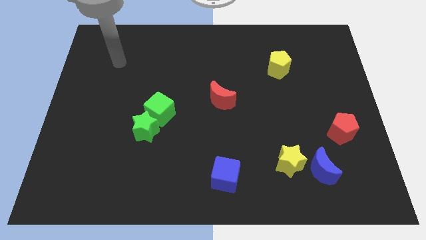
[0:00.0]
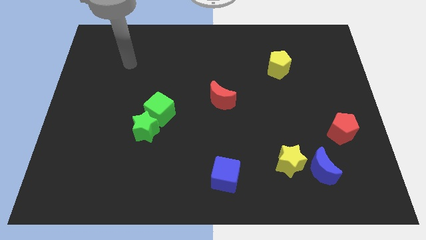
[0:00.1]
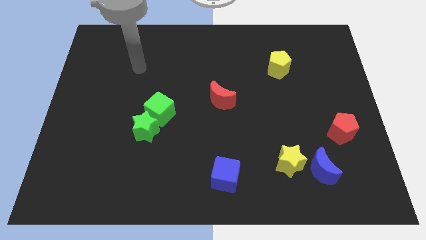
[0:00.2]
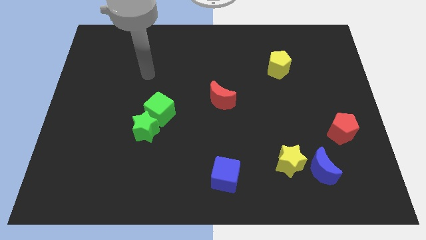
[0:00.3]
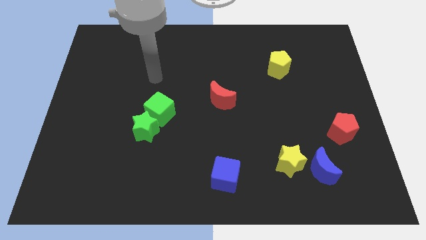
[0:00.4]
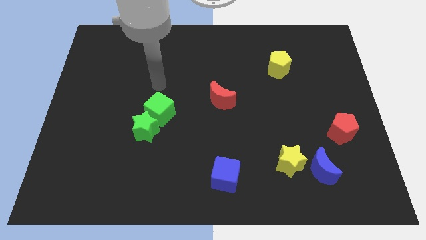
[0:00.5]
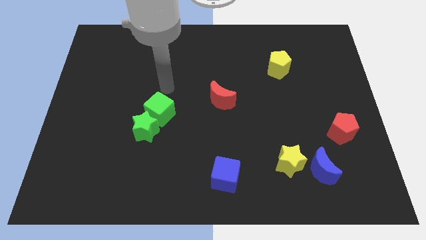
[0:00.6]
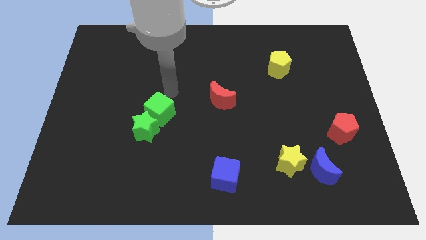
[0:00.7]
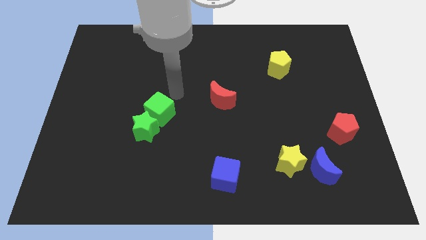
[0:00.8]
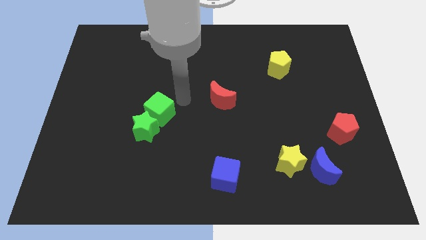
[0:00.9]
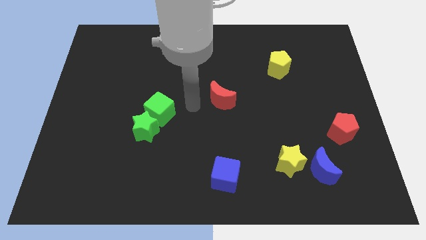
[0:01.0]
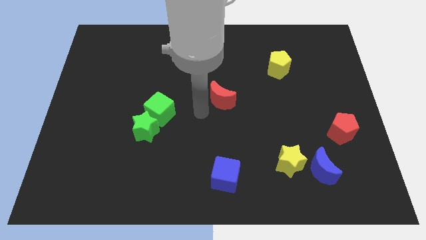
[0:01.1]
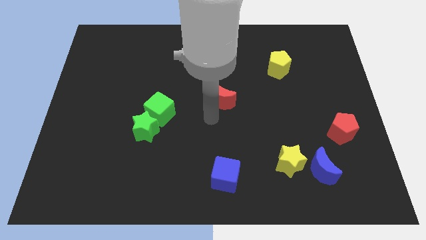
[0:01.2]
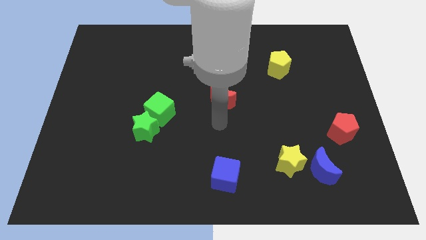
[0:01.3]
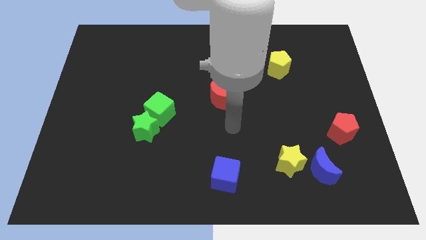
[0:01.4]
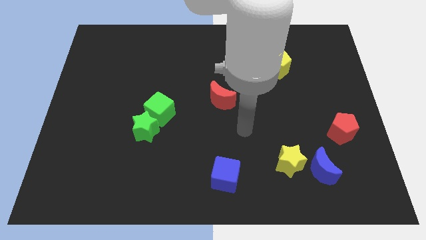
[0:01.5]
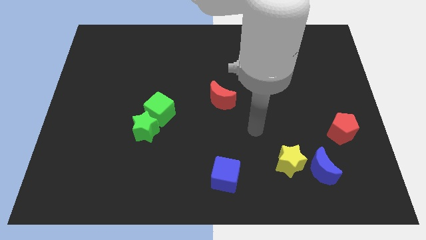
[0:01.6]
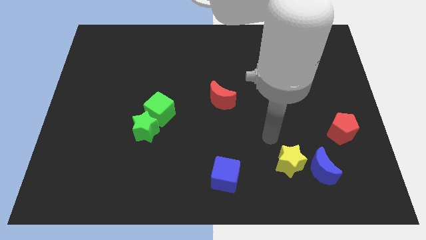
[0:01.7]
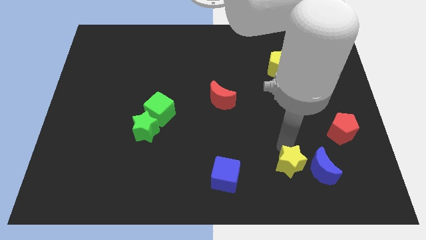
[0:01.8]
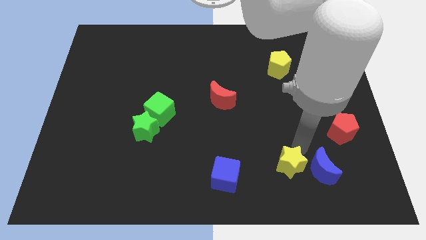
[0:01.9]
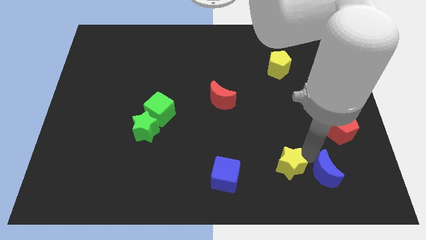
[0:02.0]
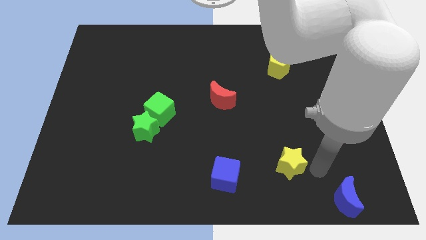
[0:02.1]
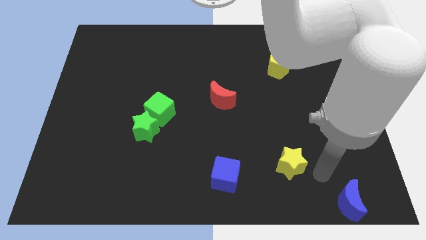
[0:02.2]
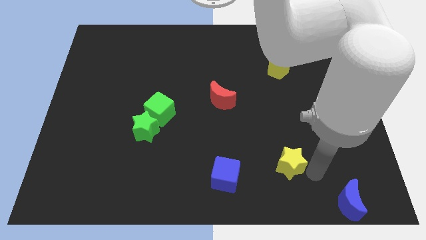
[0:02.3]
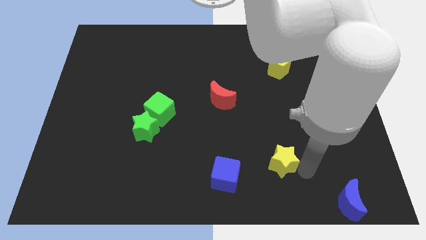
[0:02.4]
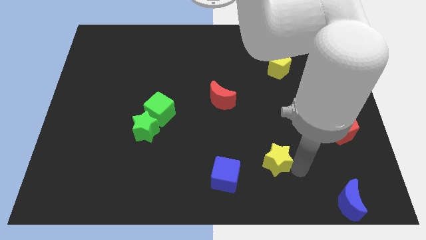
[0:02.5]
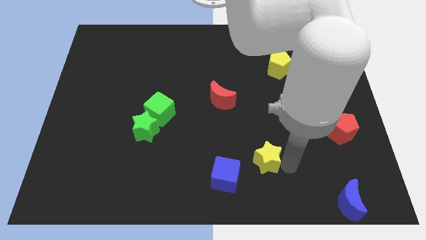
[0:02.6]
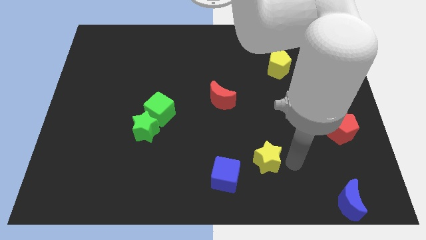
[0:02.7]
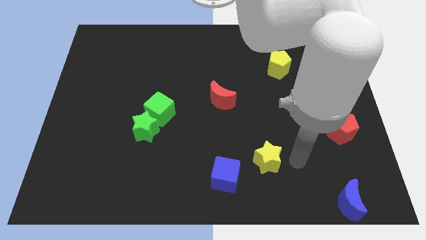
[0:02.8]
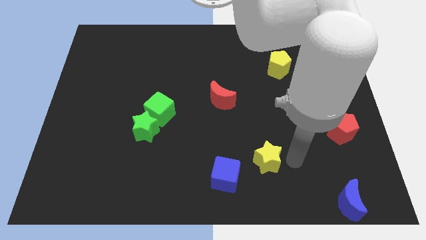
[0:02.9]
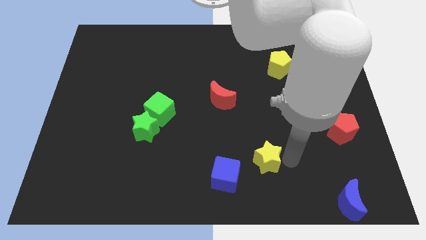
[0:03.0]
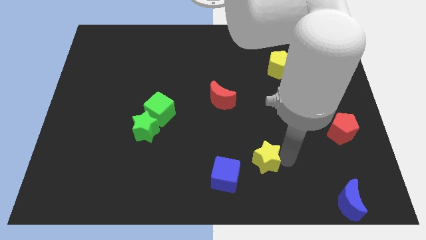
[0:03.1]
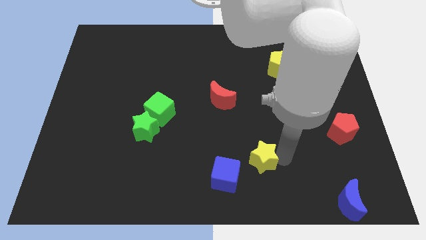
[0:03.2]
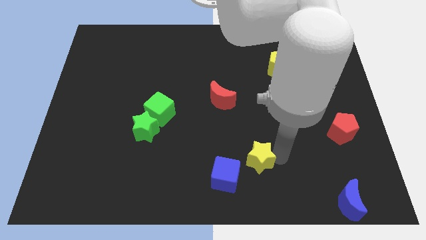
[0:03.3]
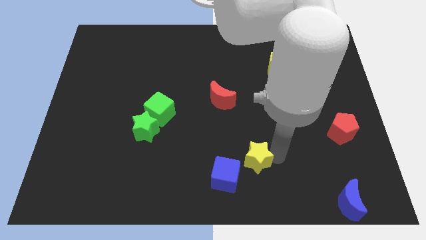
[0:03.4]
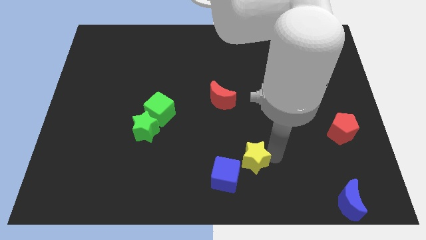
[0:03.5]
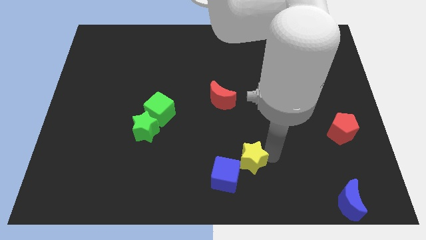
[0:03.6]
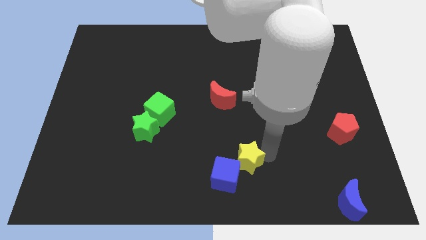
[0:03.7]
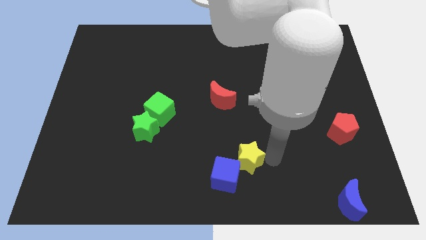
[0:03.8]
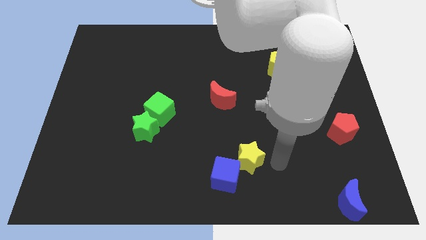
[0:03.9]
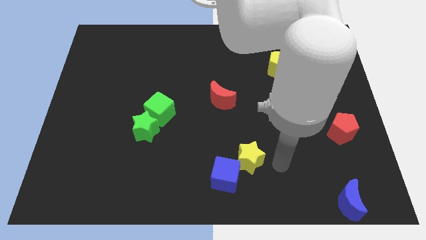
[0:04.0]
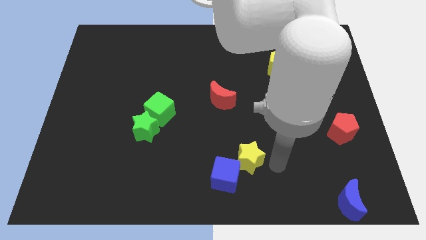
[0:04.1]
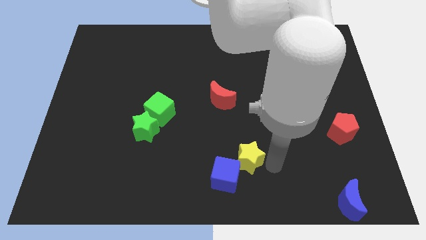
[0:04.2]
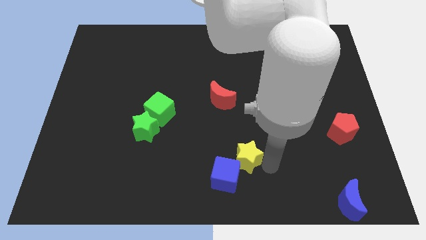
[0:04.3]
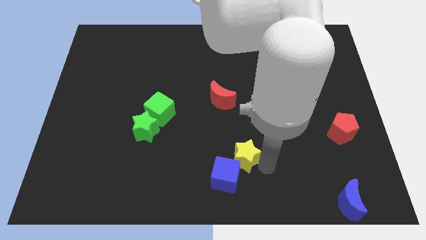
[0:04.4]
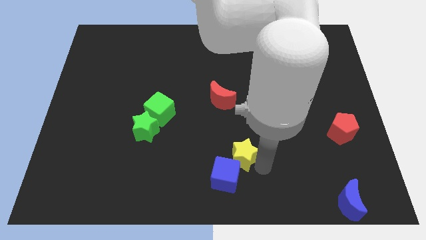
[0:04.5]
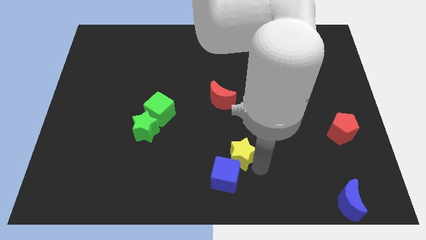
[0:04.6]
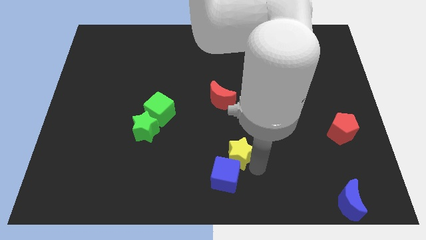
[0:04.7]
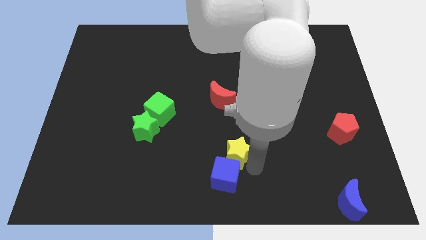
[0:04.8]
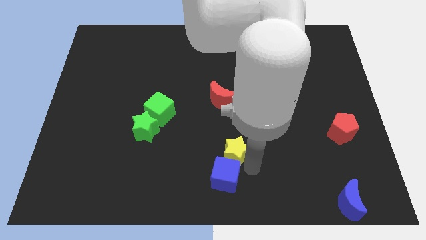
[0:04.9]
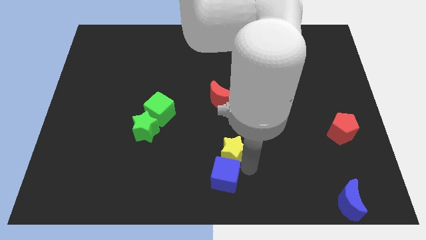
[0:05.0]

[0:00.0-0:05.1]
push the yellow star to the top left of the blue cube
